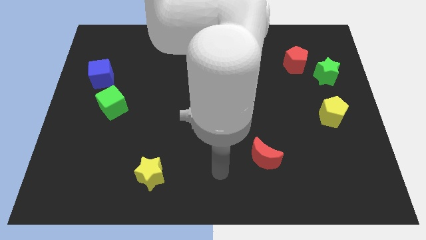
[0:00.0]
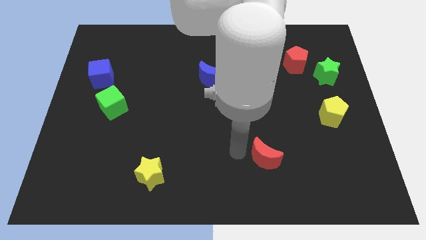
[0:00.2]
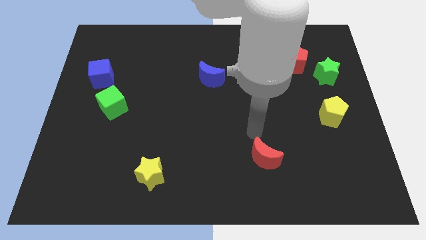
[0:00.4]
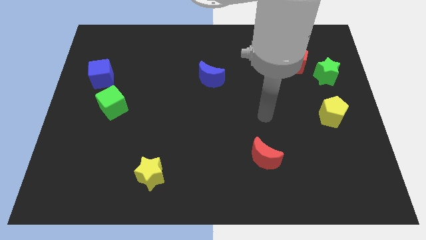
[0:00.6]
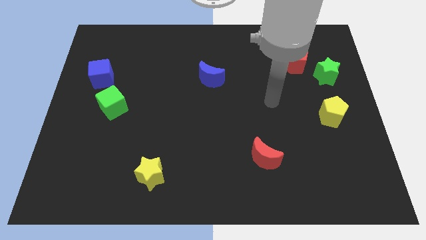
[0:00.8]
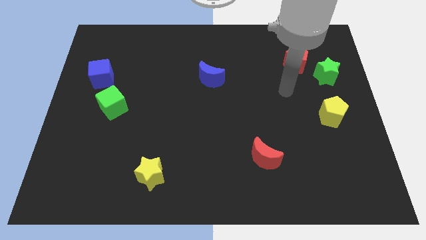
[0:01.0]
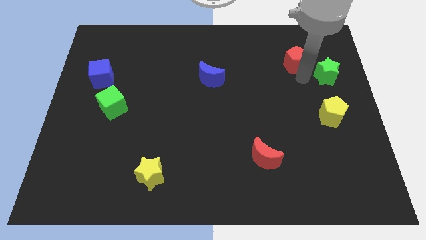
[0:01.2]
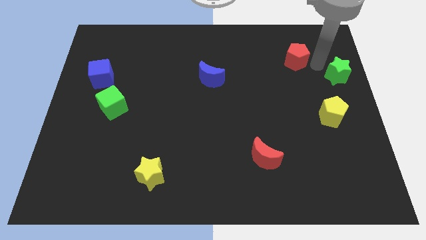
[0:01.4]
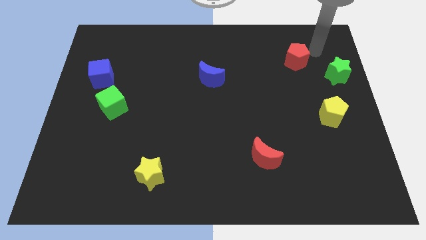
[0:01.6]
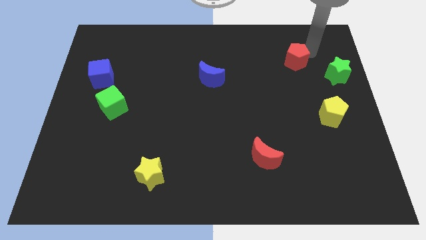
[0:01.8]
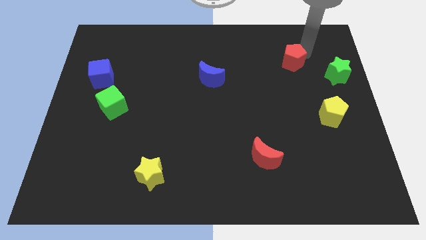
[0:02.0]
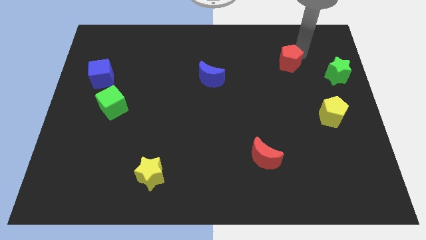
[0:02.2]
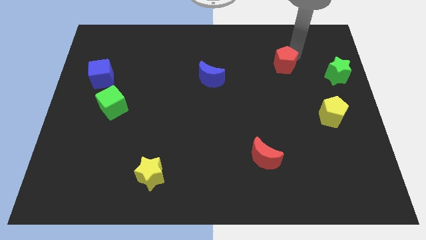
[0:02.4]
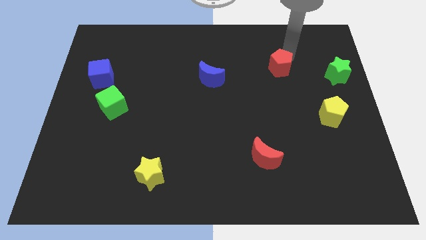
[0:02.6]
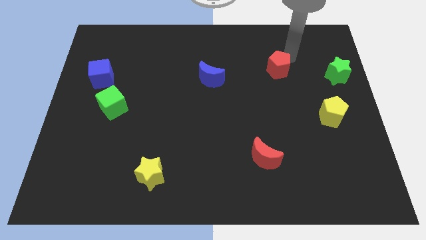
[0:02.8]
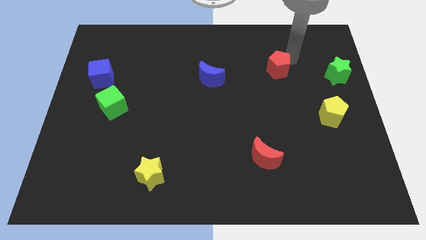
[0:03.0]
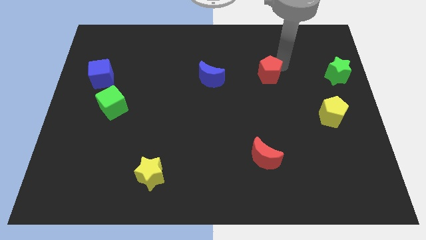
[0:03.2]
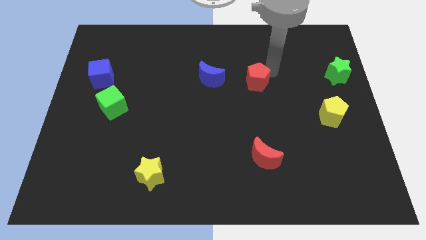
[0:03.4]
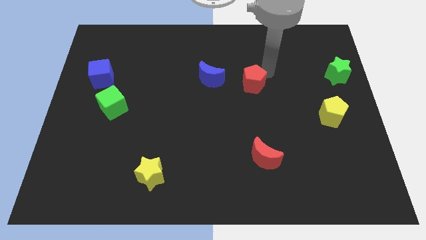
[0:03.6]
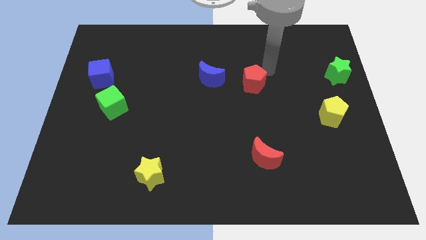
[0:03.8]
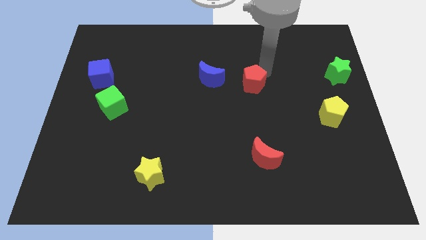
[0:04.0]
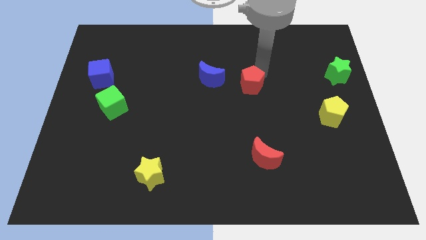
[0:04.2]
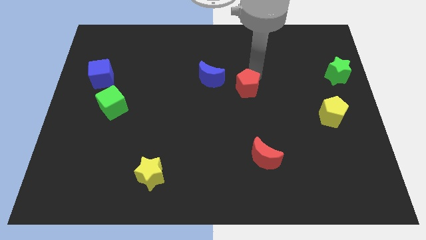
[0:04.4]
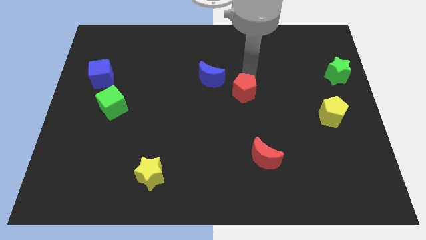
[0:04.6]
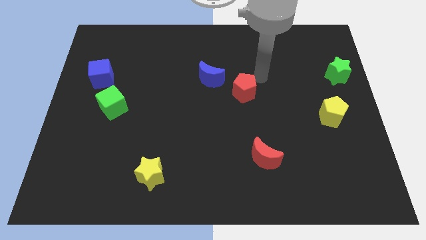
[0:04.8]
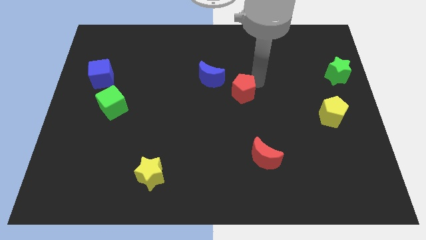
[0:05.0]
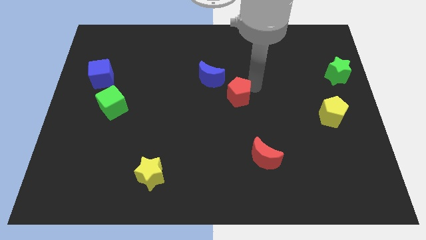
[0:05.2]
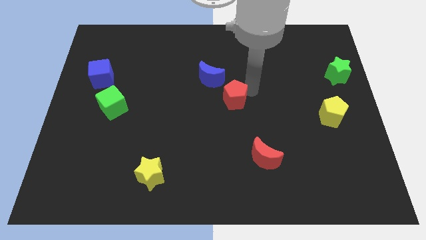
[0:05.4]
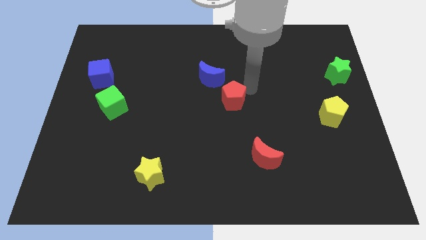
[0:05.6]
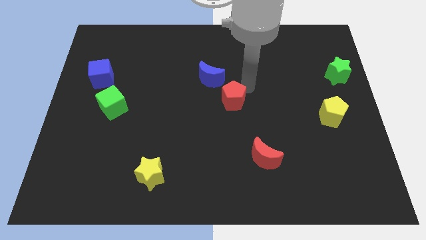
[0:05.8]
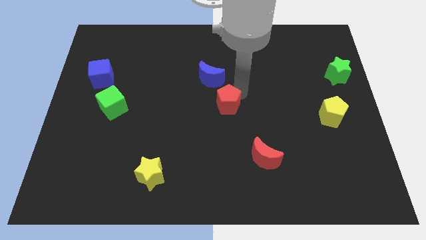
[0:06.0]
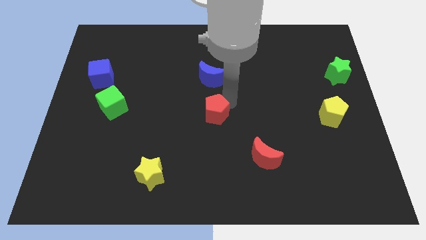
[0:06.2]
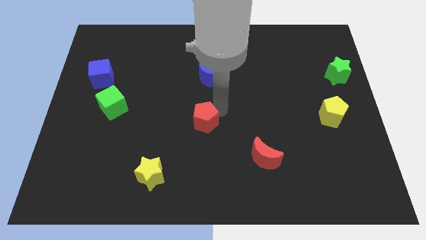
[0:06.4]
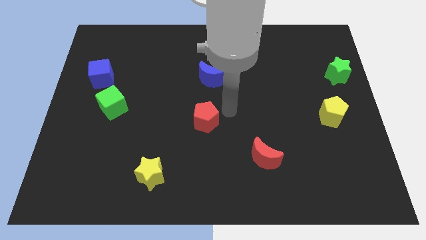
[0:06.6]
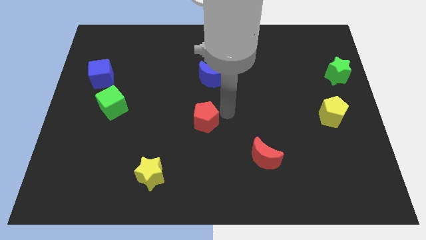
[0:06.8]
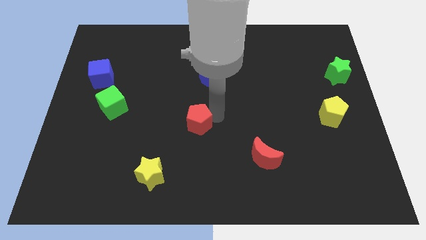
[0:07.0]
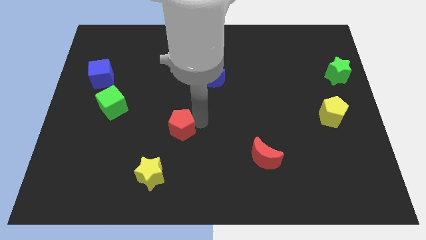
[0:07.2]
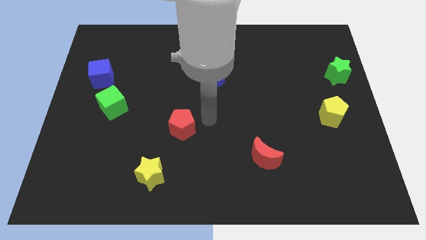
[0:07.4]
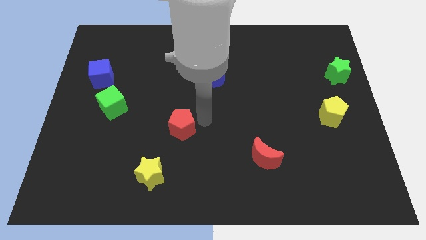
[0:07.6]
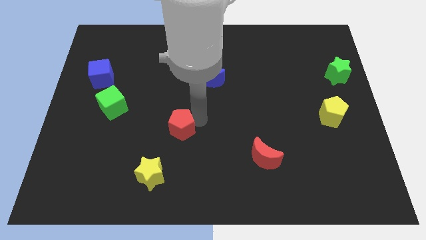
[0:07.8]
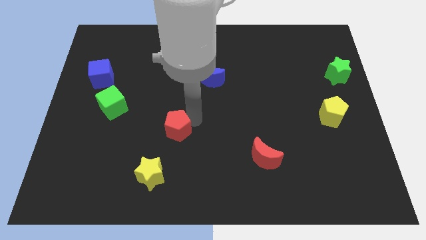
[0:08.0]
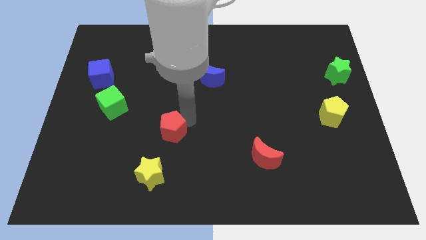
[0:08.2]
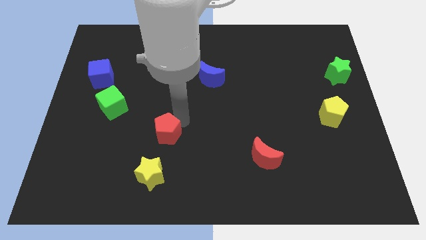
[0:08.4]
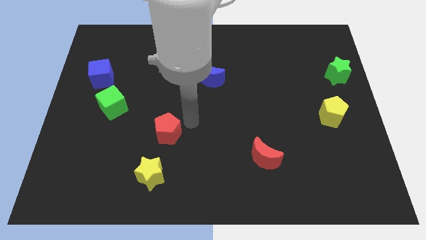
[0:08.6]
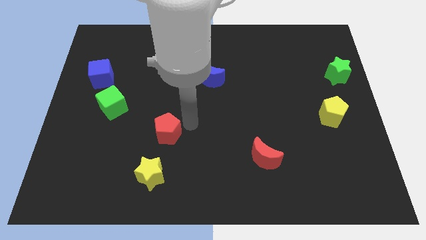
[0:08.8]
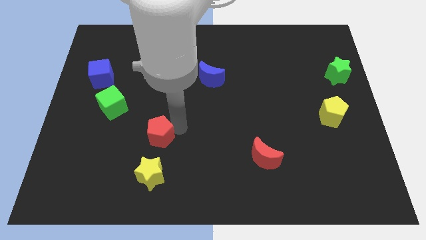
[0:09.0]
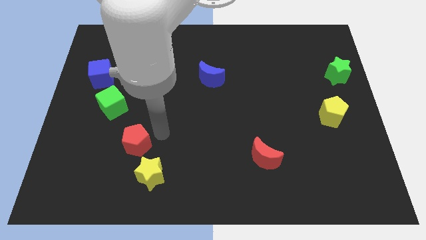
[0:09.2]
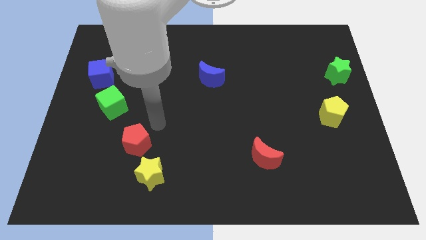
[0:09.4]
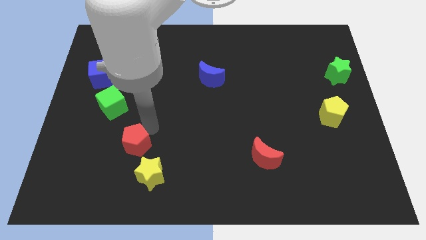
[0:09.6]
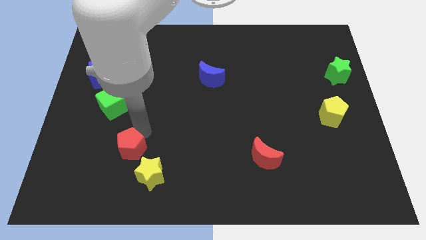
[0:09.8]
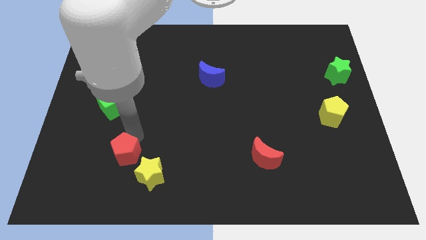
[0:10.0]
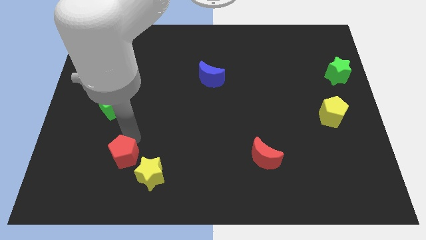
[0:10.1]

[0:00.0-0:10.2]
slide the red pentagon just left of the yellow star

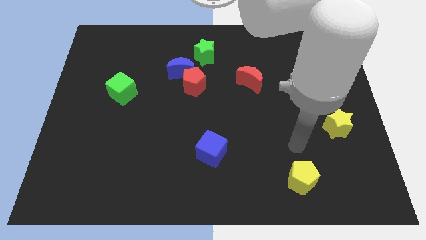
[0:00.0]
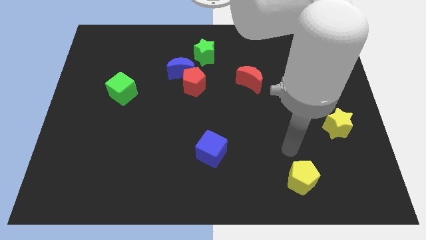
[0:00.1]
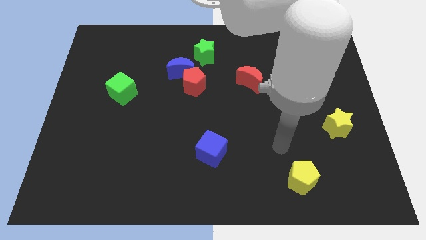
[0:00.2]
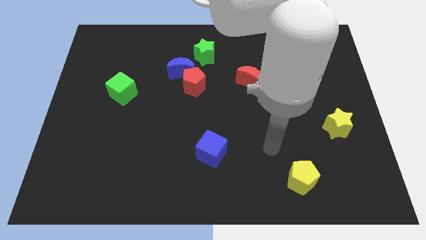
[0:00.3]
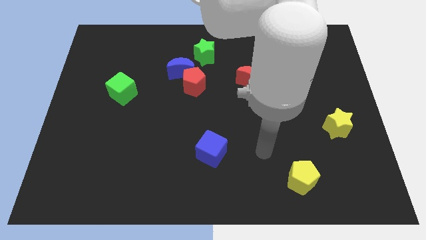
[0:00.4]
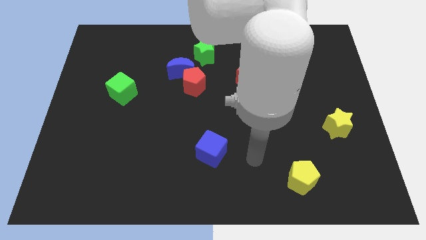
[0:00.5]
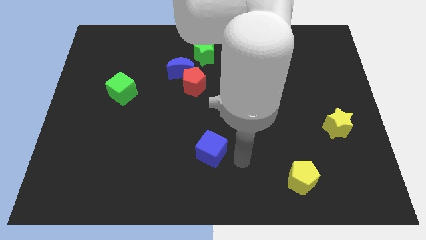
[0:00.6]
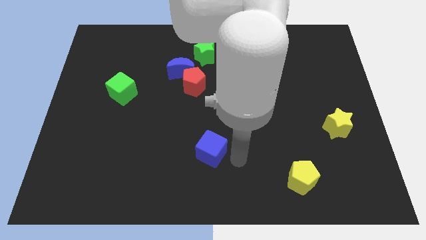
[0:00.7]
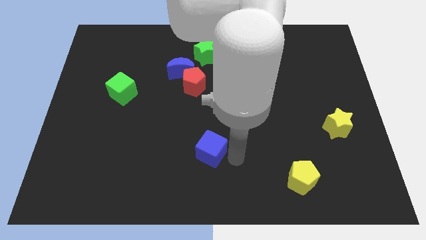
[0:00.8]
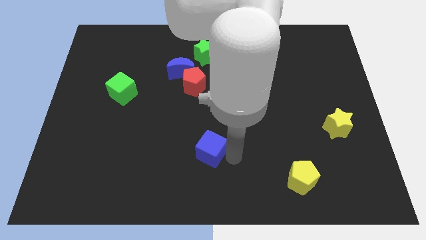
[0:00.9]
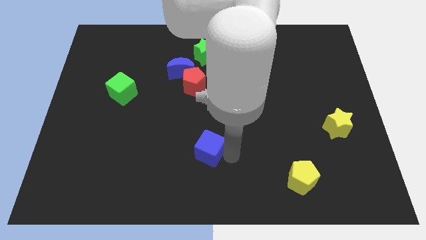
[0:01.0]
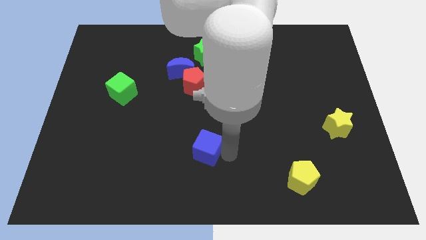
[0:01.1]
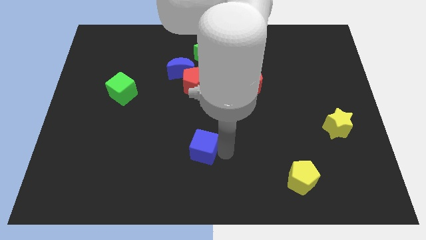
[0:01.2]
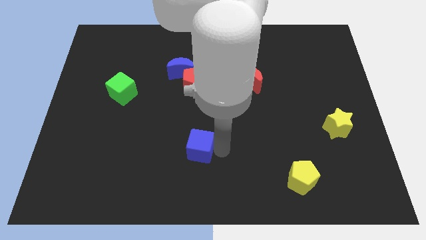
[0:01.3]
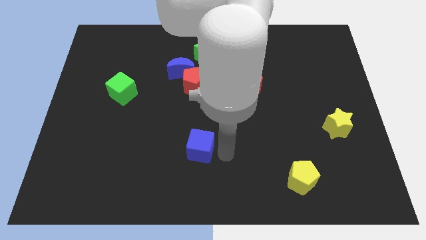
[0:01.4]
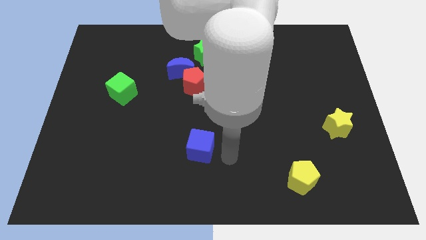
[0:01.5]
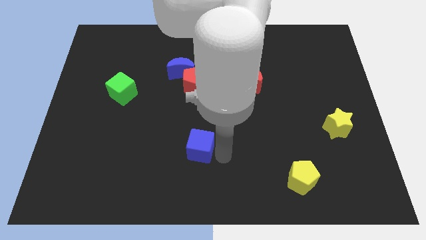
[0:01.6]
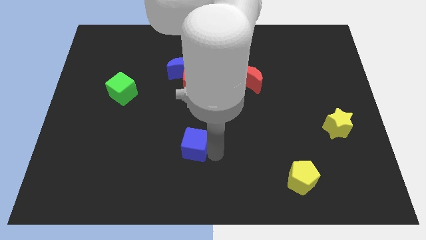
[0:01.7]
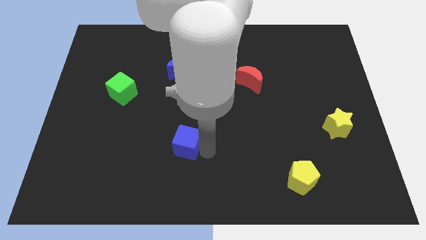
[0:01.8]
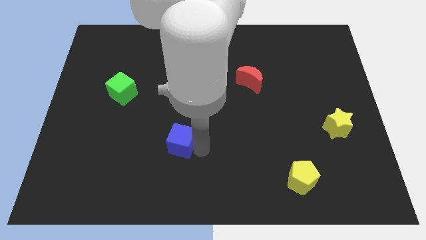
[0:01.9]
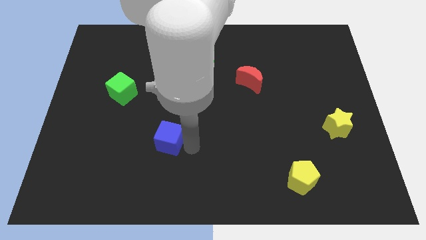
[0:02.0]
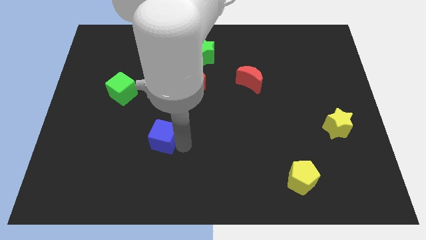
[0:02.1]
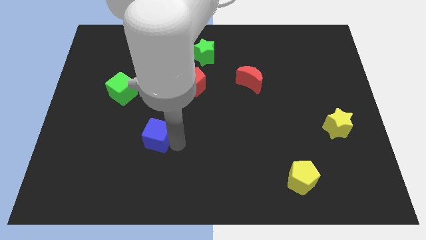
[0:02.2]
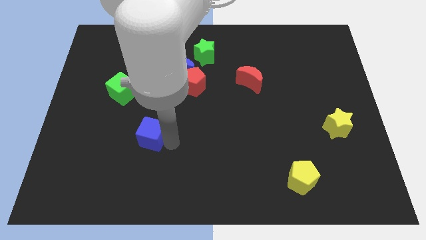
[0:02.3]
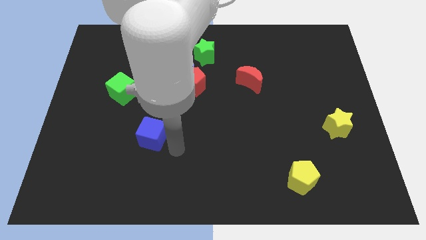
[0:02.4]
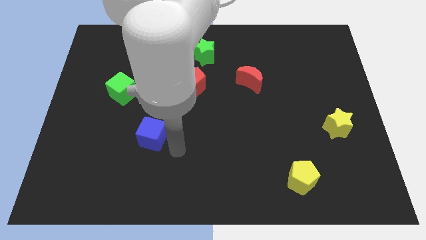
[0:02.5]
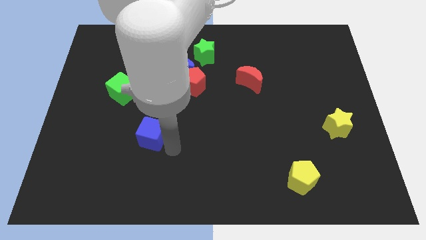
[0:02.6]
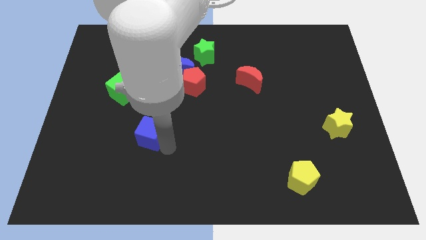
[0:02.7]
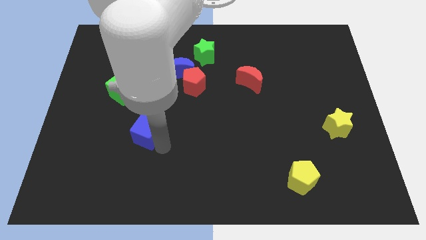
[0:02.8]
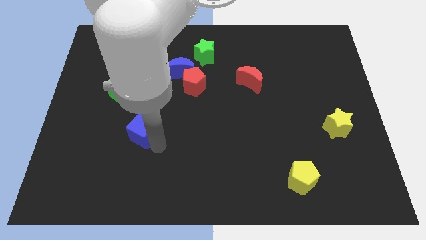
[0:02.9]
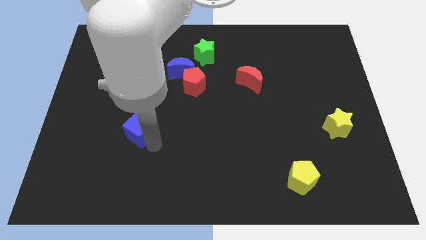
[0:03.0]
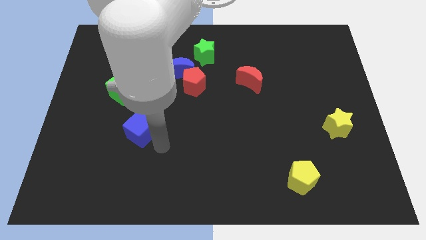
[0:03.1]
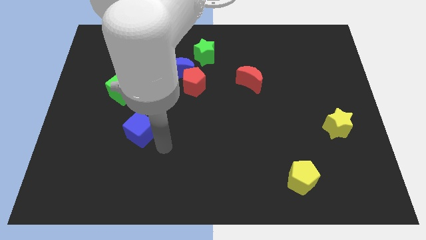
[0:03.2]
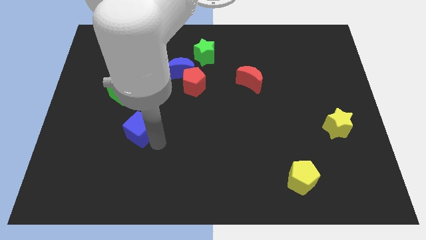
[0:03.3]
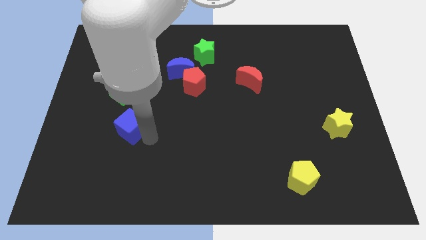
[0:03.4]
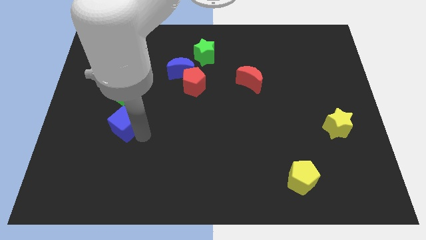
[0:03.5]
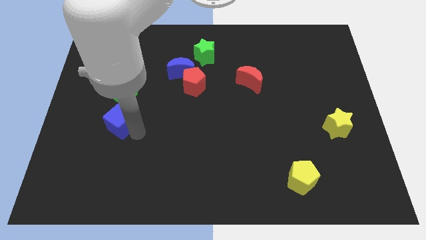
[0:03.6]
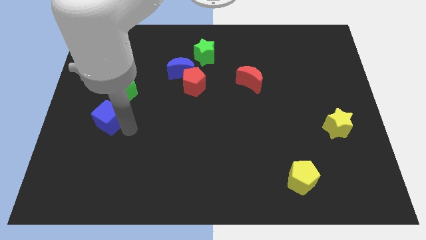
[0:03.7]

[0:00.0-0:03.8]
push the blue cube to the bottom left of the green cube
